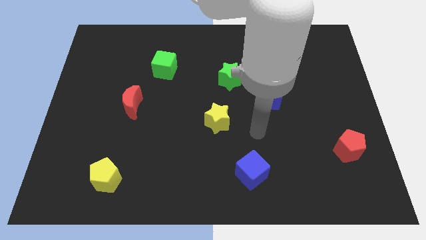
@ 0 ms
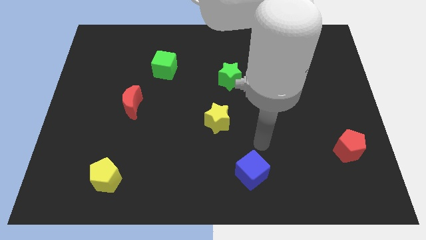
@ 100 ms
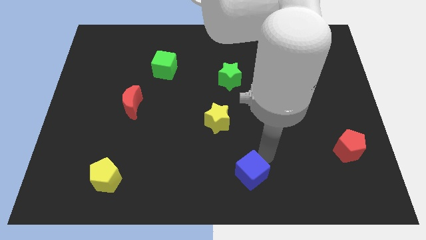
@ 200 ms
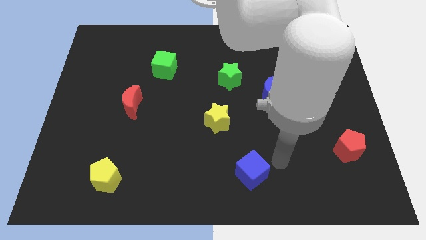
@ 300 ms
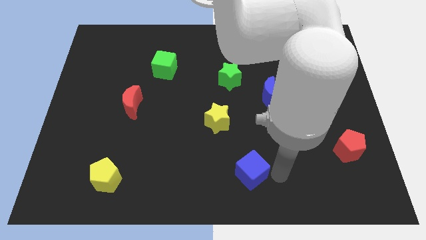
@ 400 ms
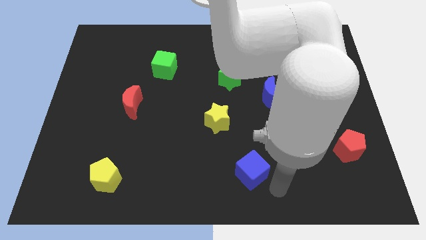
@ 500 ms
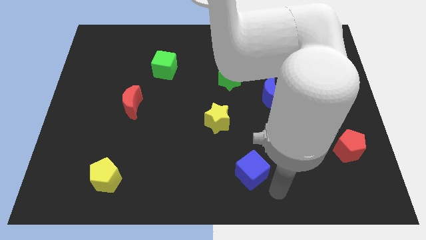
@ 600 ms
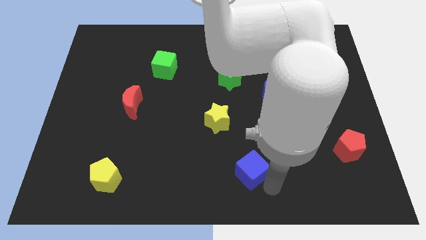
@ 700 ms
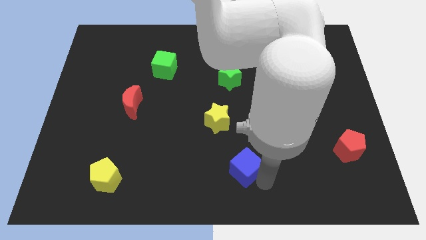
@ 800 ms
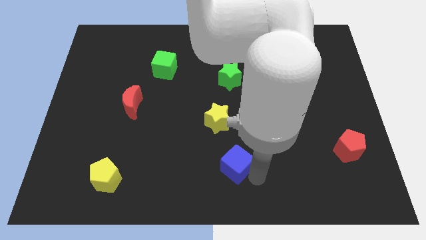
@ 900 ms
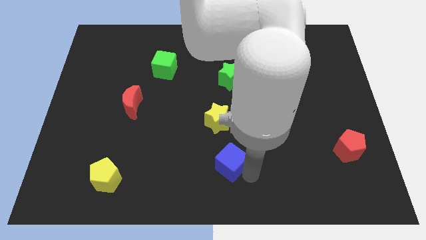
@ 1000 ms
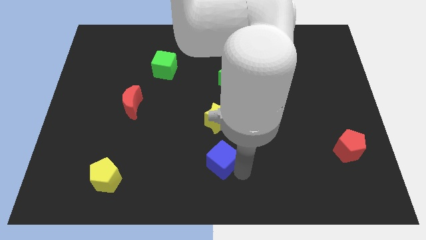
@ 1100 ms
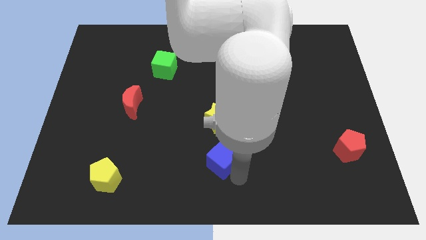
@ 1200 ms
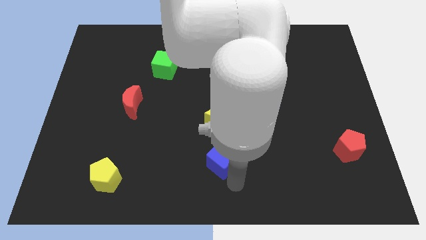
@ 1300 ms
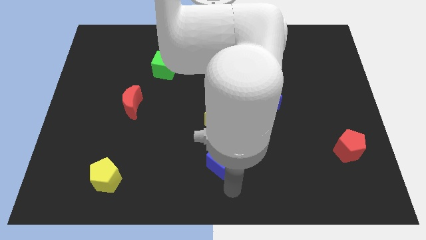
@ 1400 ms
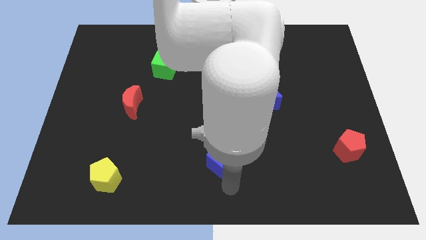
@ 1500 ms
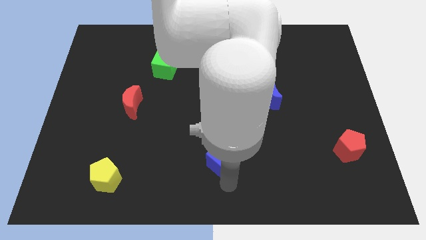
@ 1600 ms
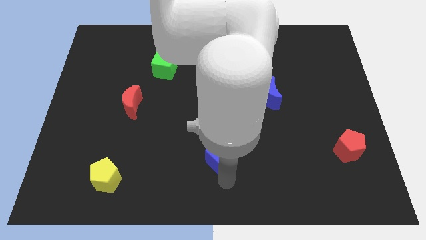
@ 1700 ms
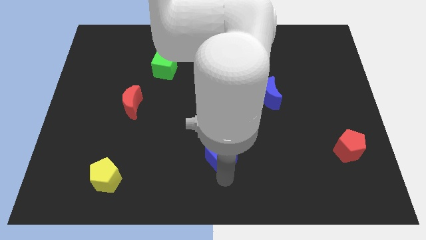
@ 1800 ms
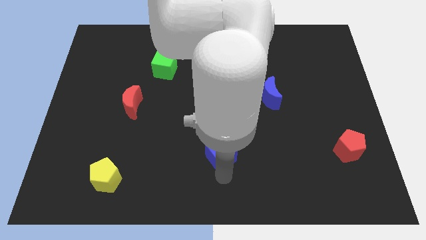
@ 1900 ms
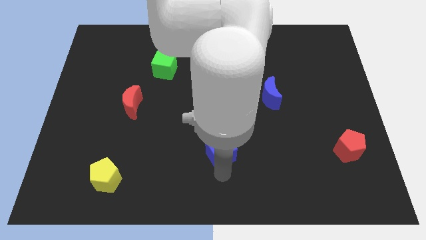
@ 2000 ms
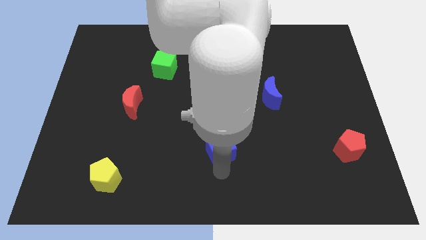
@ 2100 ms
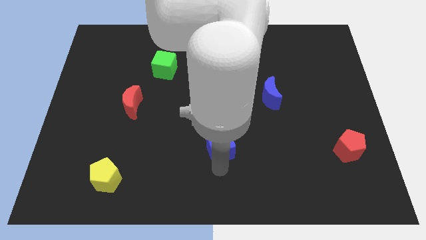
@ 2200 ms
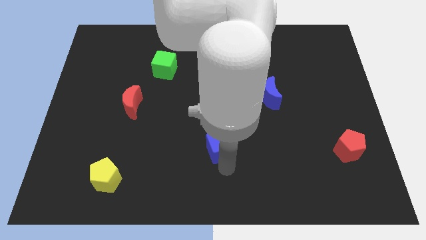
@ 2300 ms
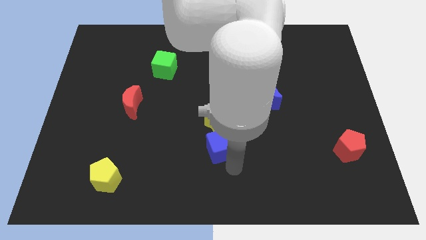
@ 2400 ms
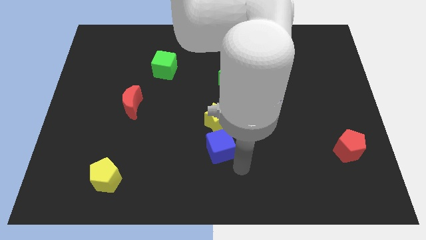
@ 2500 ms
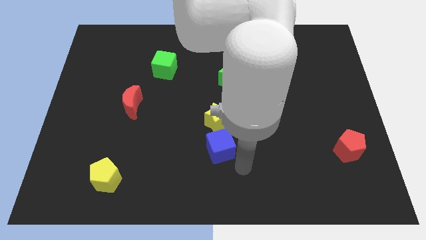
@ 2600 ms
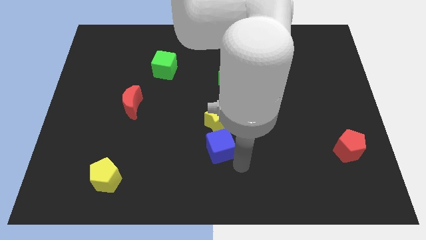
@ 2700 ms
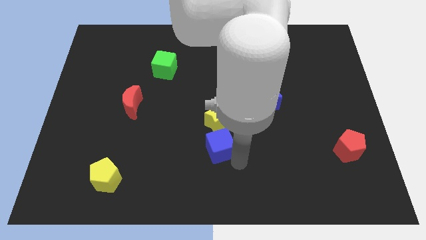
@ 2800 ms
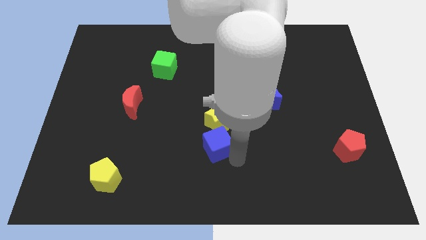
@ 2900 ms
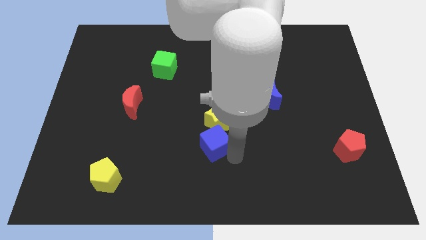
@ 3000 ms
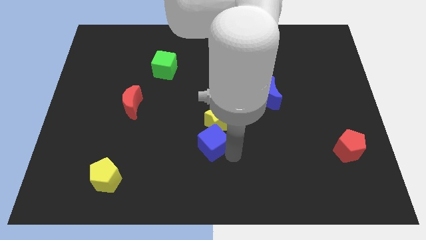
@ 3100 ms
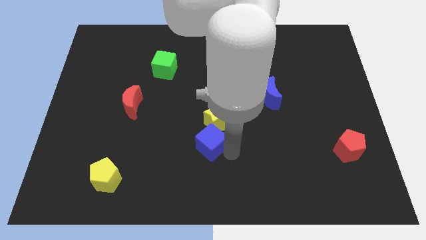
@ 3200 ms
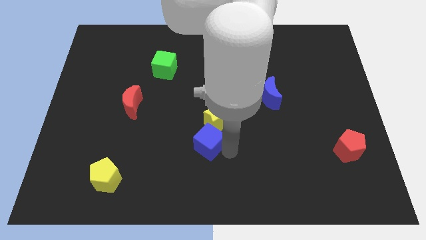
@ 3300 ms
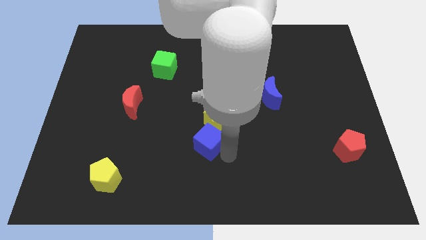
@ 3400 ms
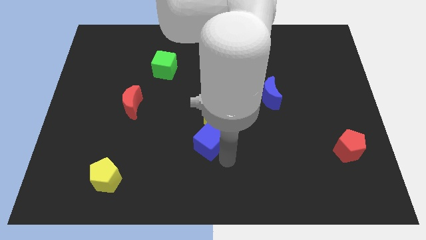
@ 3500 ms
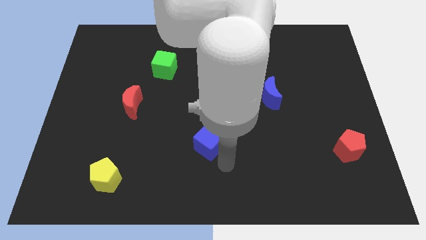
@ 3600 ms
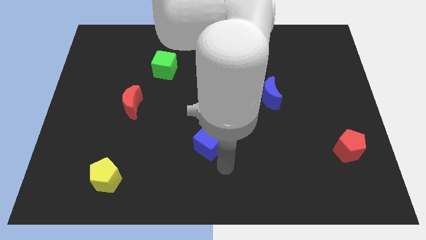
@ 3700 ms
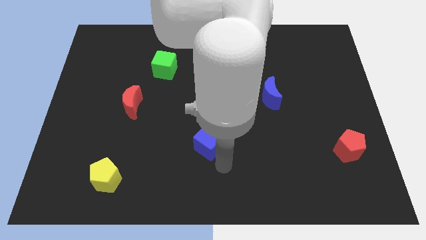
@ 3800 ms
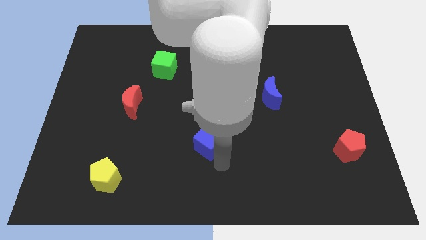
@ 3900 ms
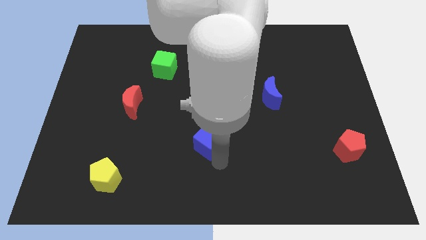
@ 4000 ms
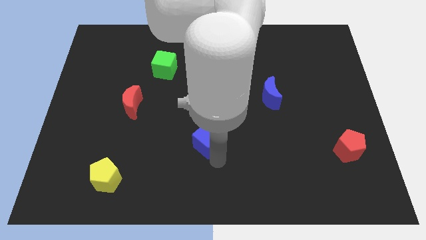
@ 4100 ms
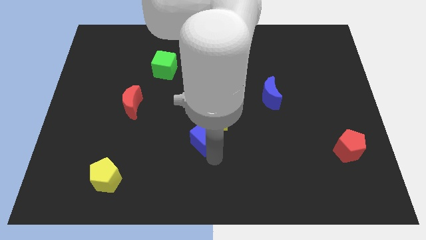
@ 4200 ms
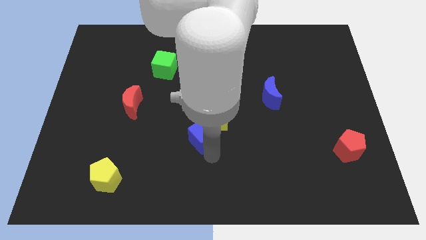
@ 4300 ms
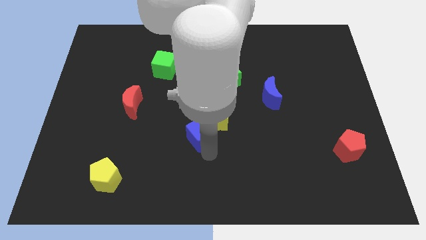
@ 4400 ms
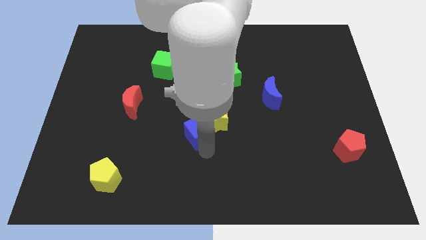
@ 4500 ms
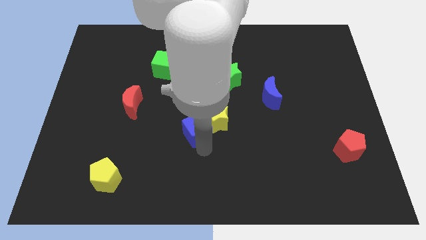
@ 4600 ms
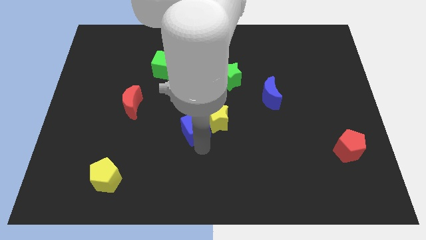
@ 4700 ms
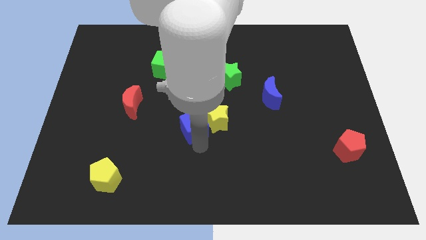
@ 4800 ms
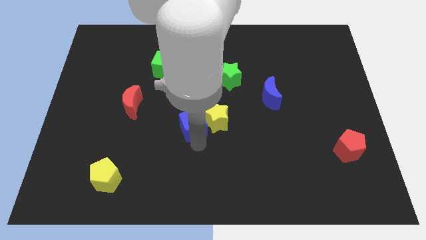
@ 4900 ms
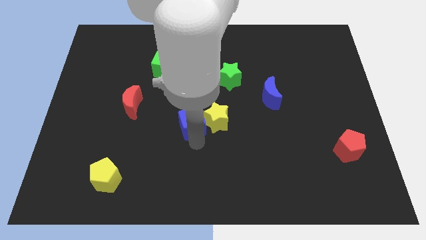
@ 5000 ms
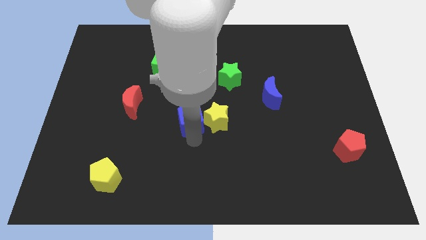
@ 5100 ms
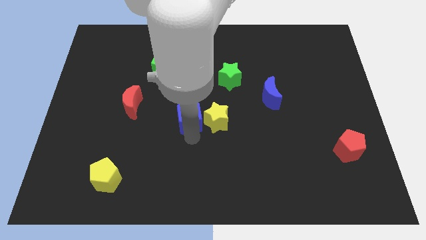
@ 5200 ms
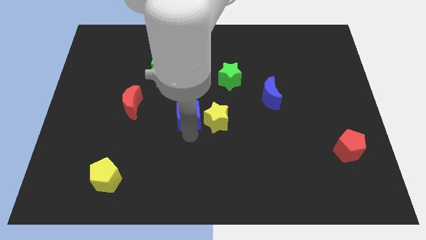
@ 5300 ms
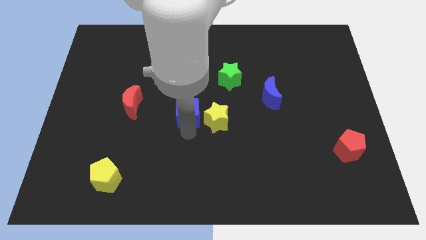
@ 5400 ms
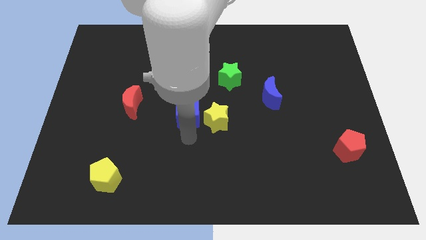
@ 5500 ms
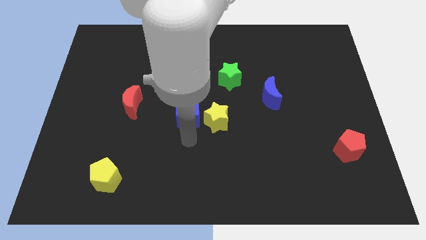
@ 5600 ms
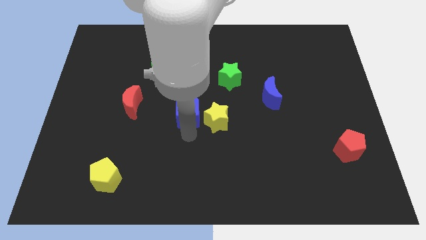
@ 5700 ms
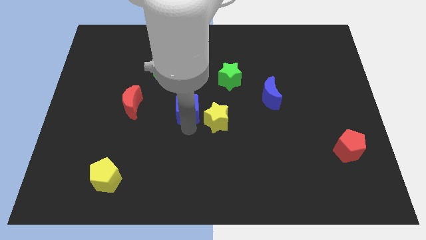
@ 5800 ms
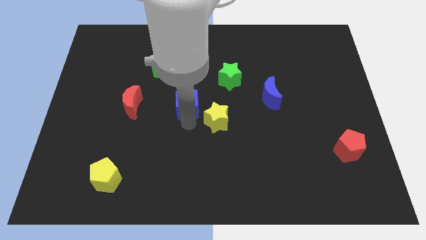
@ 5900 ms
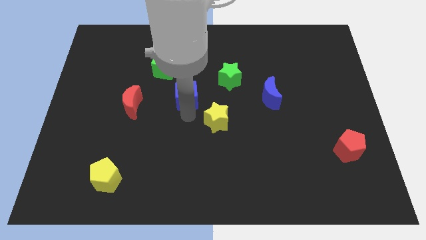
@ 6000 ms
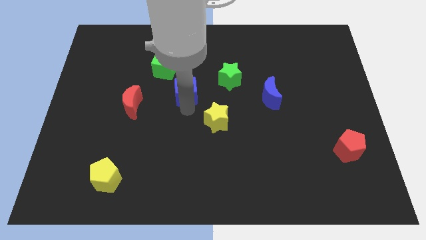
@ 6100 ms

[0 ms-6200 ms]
slide the blue cube to the left side of the green star

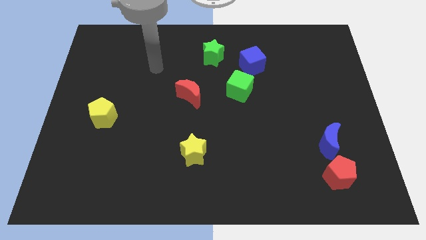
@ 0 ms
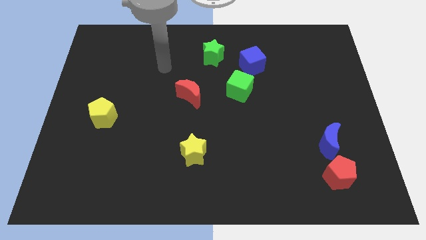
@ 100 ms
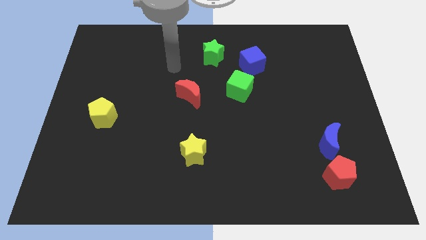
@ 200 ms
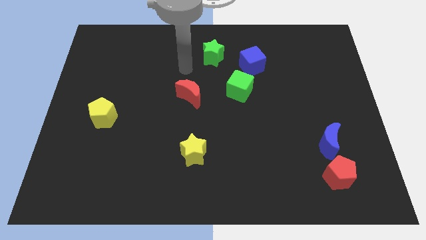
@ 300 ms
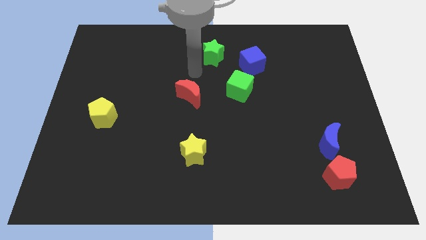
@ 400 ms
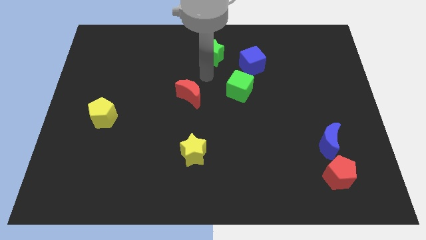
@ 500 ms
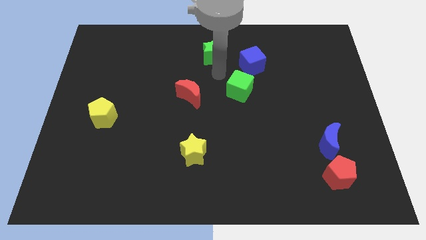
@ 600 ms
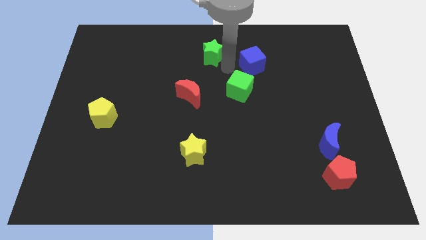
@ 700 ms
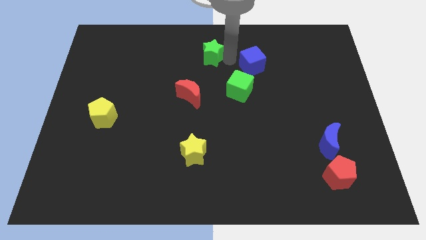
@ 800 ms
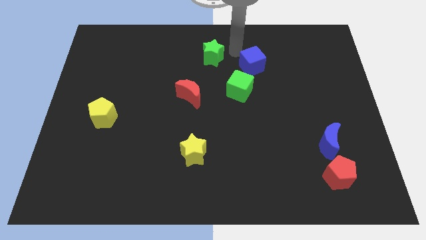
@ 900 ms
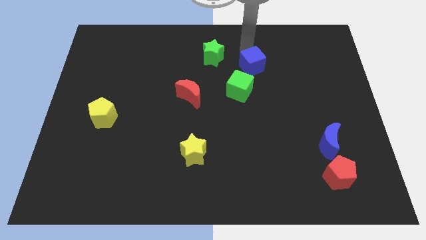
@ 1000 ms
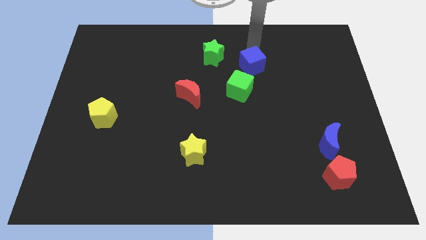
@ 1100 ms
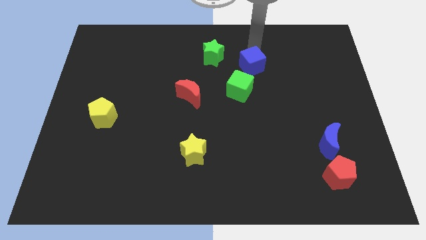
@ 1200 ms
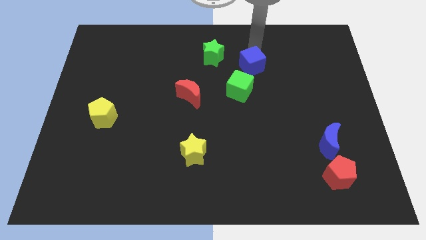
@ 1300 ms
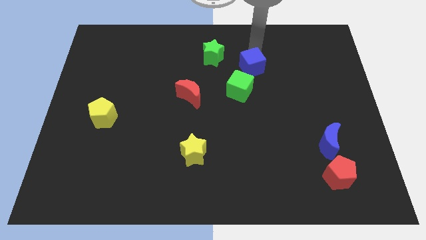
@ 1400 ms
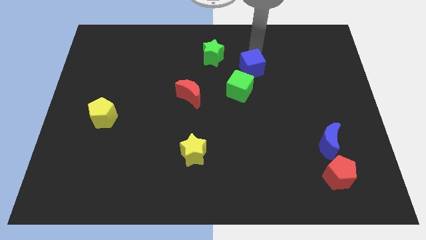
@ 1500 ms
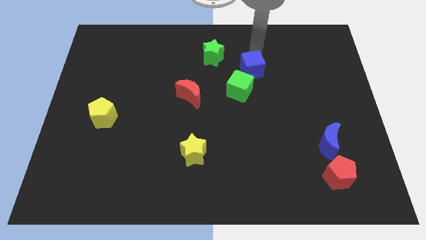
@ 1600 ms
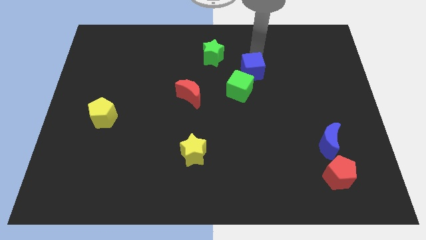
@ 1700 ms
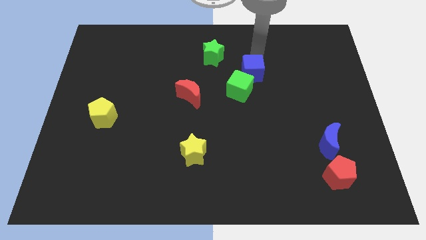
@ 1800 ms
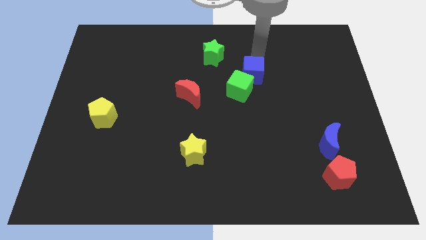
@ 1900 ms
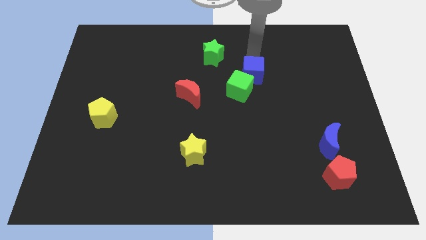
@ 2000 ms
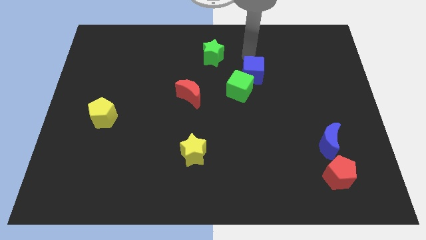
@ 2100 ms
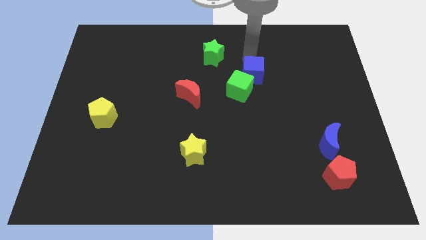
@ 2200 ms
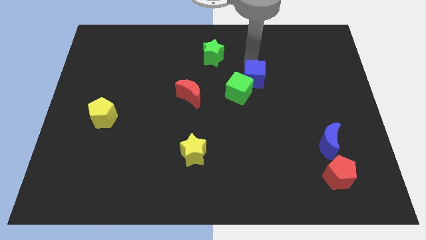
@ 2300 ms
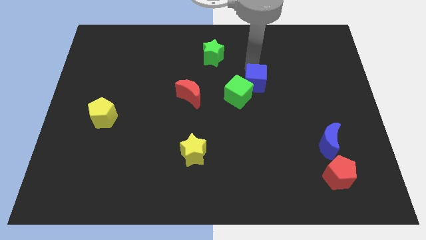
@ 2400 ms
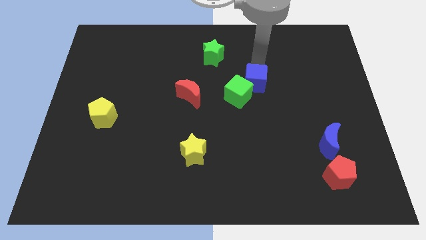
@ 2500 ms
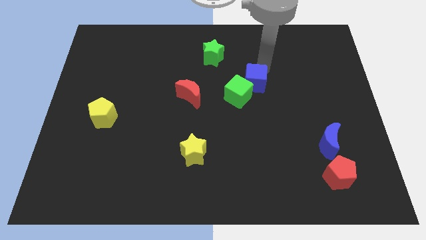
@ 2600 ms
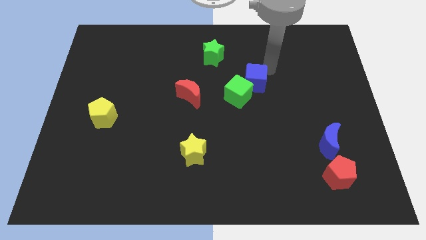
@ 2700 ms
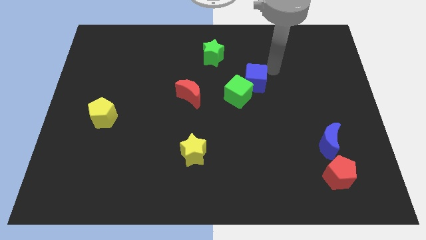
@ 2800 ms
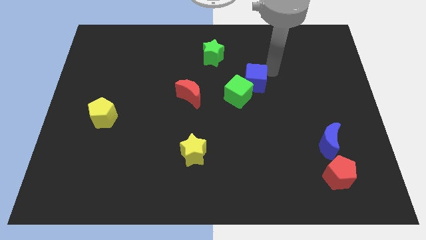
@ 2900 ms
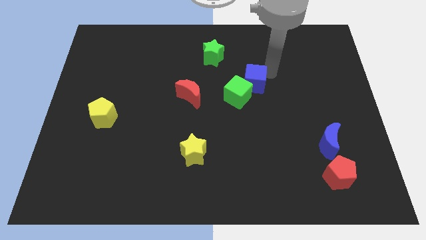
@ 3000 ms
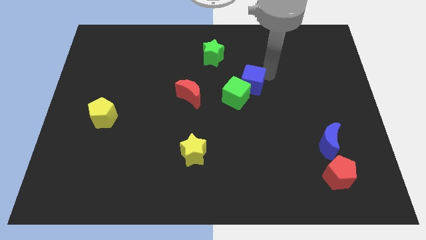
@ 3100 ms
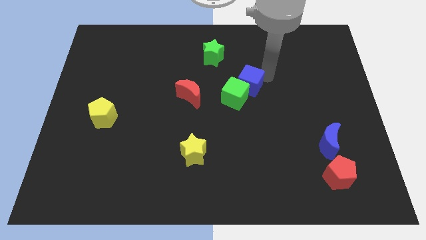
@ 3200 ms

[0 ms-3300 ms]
slide the blue cube to the right side of the red moon
